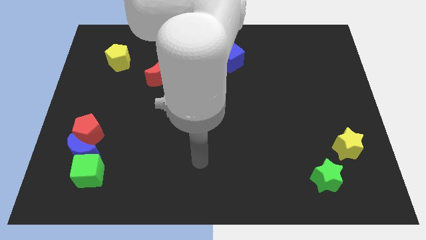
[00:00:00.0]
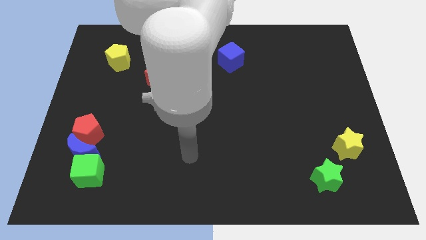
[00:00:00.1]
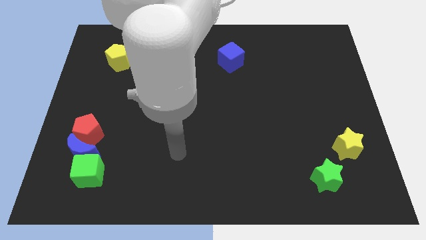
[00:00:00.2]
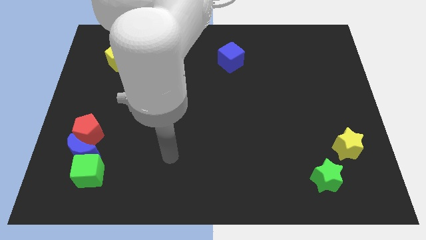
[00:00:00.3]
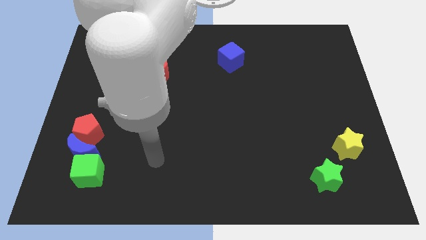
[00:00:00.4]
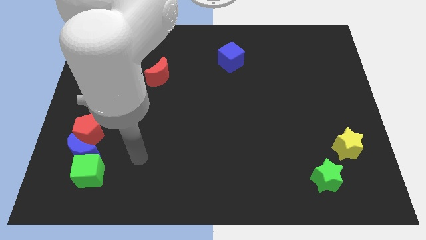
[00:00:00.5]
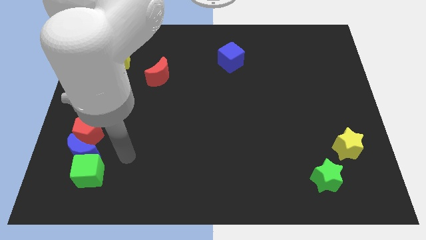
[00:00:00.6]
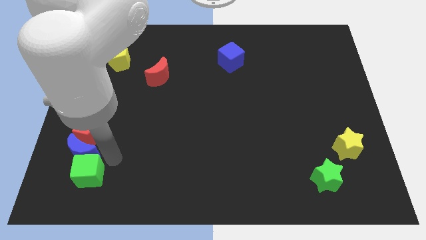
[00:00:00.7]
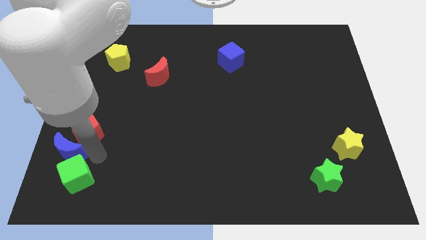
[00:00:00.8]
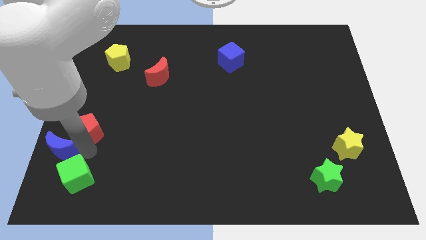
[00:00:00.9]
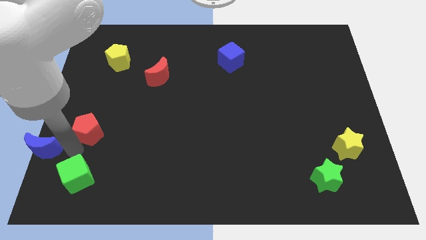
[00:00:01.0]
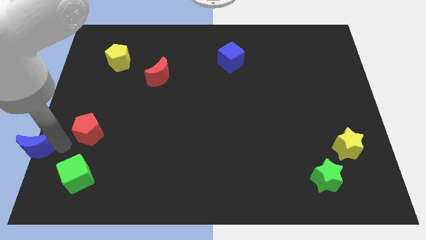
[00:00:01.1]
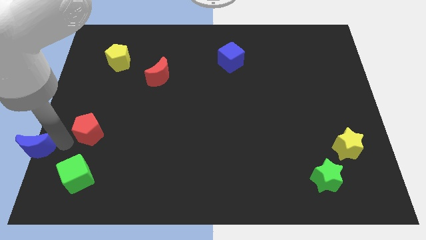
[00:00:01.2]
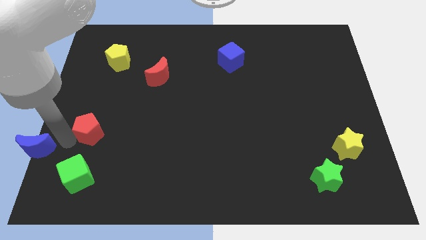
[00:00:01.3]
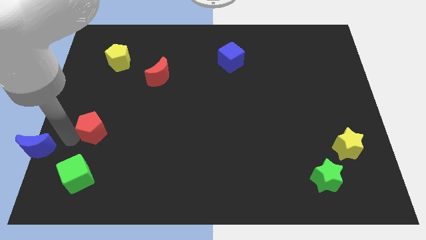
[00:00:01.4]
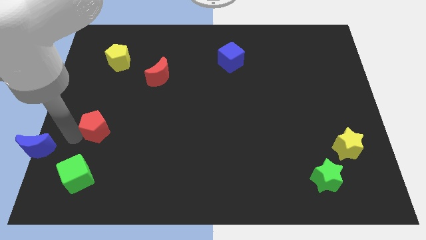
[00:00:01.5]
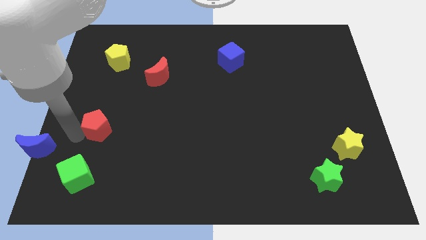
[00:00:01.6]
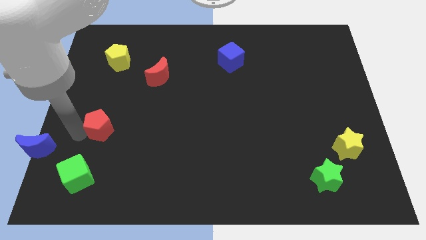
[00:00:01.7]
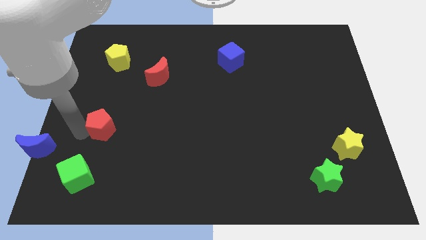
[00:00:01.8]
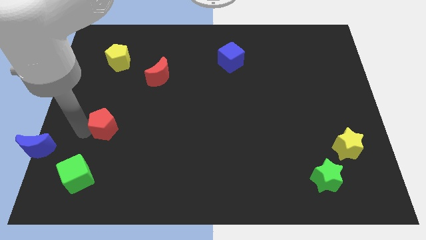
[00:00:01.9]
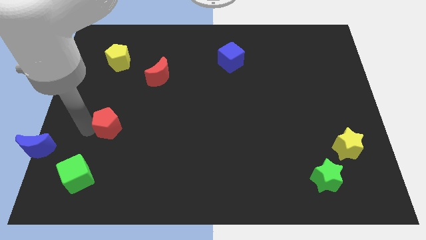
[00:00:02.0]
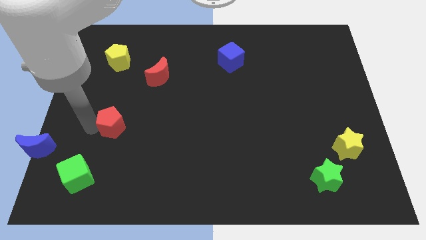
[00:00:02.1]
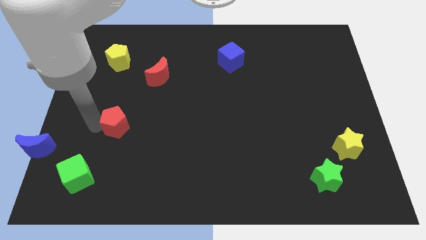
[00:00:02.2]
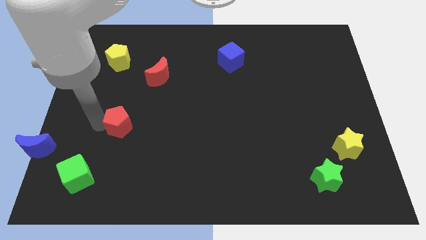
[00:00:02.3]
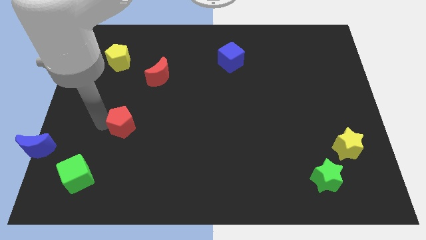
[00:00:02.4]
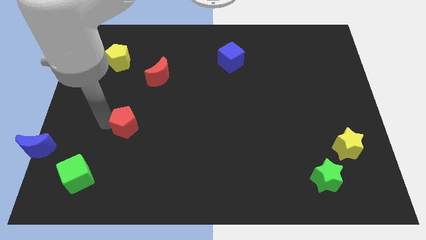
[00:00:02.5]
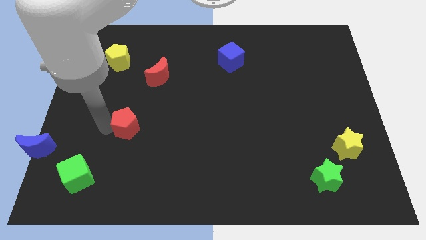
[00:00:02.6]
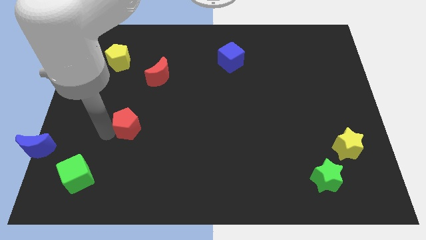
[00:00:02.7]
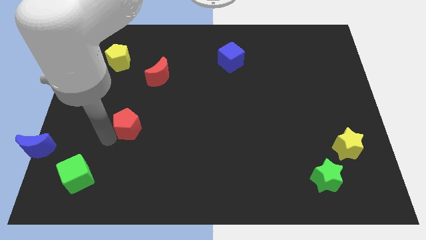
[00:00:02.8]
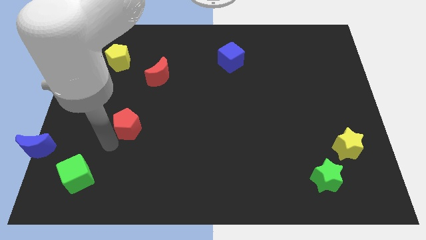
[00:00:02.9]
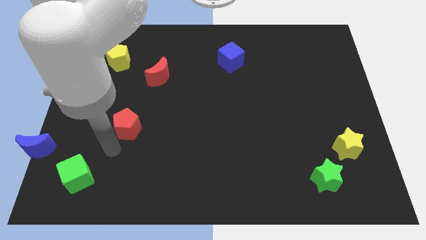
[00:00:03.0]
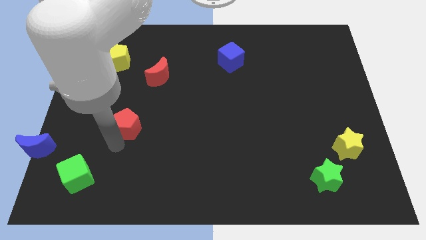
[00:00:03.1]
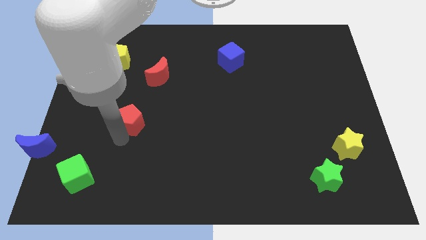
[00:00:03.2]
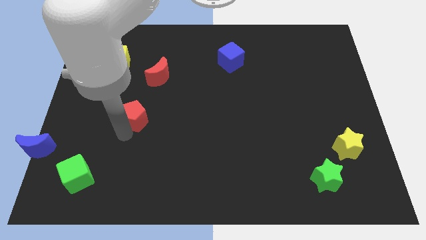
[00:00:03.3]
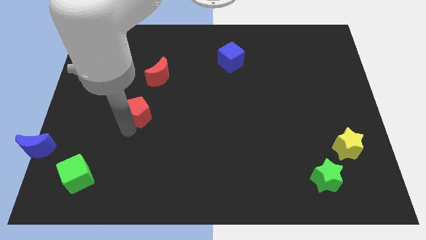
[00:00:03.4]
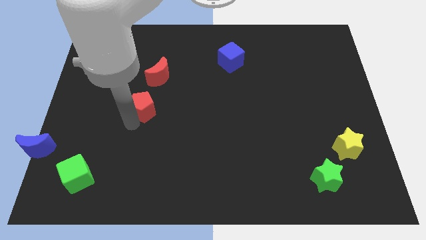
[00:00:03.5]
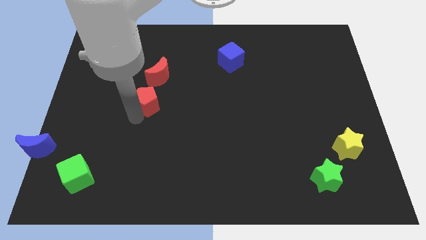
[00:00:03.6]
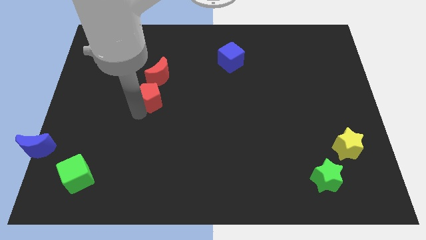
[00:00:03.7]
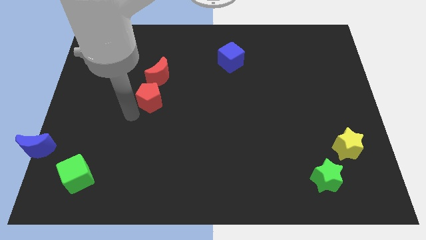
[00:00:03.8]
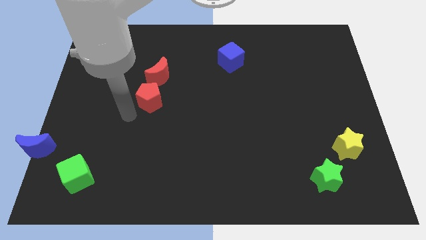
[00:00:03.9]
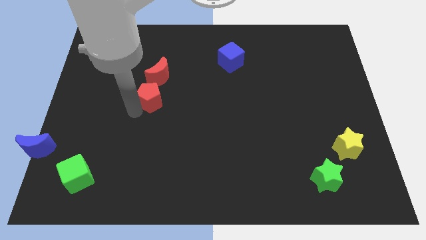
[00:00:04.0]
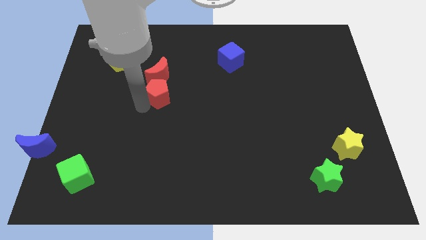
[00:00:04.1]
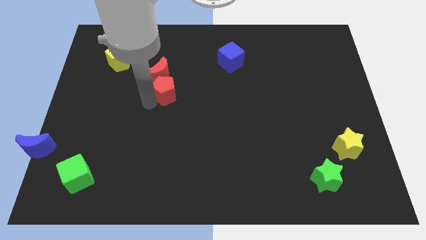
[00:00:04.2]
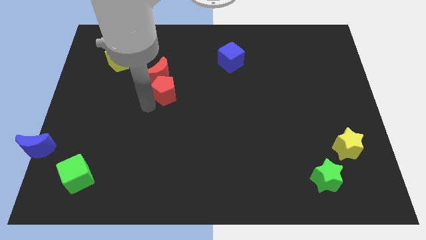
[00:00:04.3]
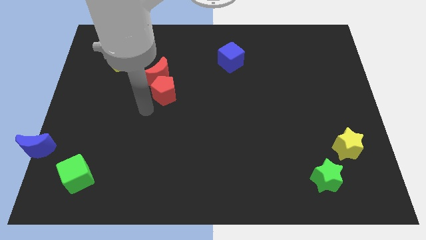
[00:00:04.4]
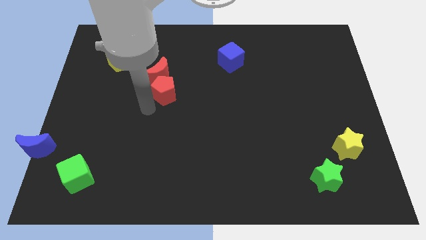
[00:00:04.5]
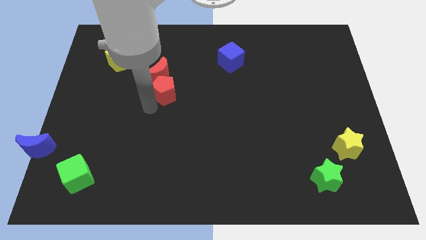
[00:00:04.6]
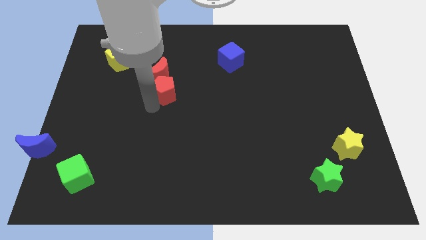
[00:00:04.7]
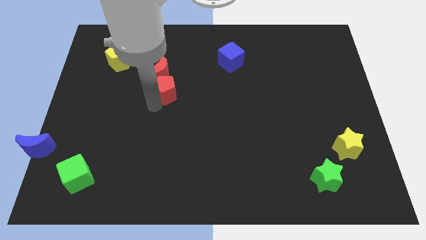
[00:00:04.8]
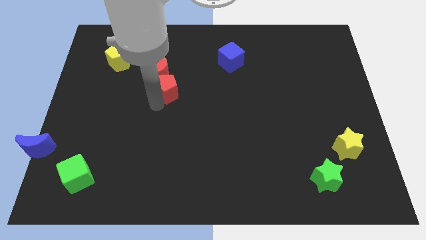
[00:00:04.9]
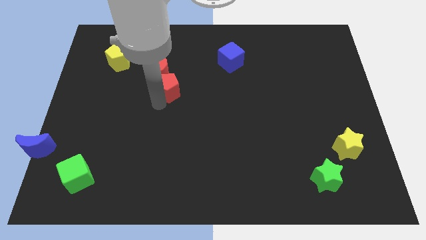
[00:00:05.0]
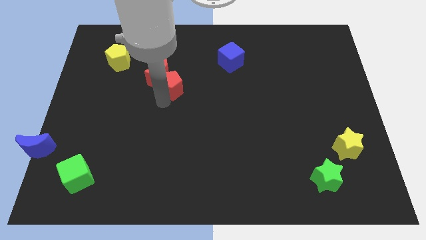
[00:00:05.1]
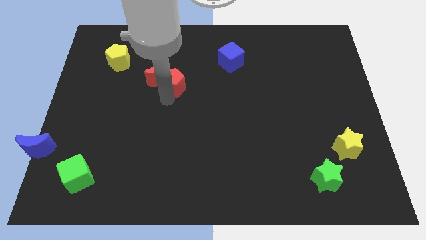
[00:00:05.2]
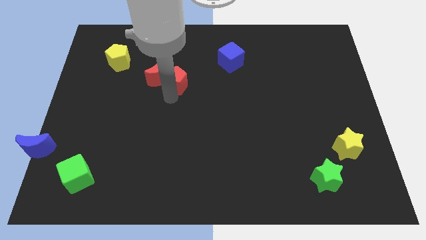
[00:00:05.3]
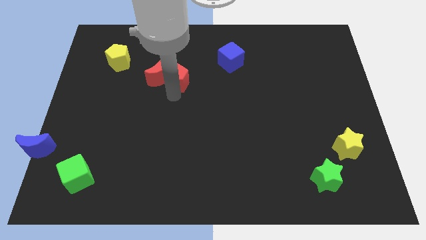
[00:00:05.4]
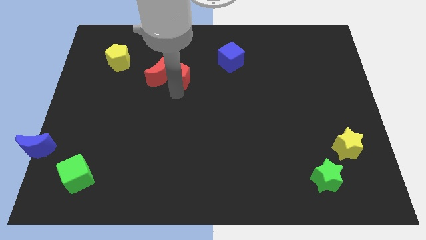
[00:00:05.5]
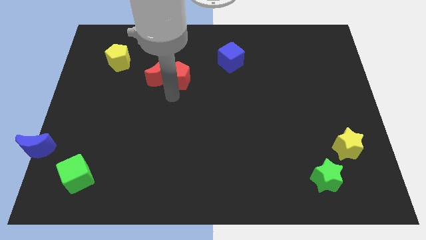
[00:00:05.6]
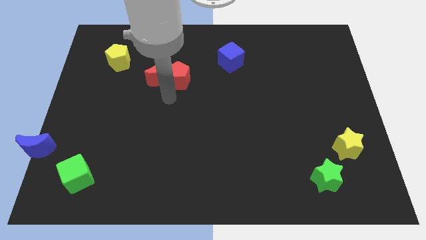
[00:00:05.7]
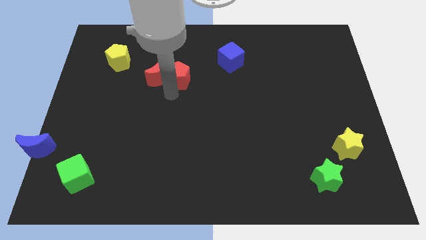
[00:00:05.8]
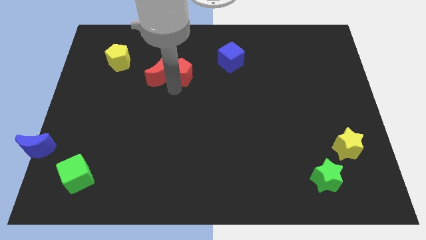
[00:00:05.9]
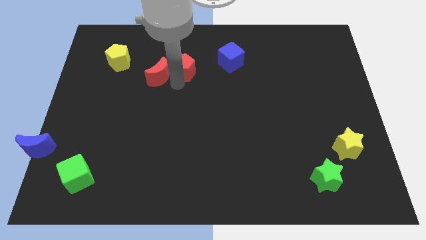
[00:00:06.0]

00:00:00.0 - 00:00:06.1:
put the red pentagon left of the blue cube

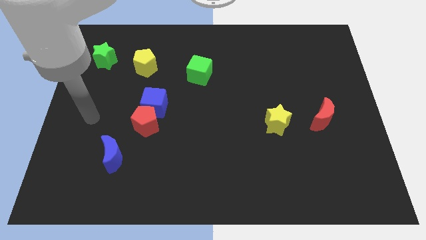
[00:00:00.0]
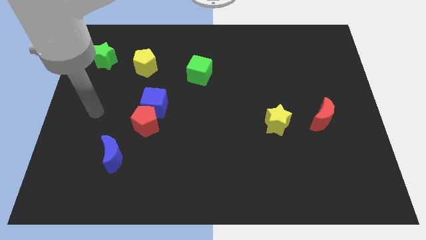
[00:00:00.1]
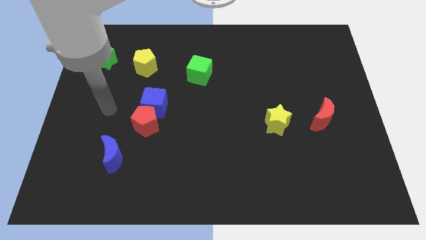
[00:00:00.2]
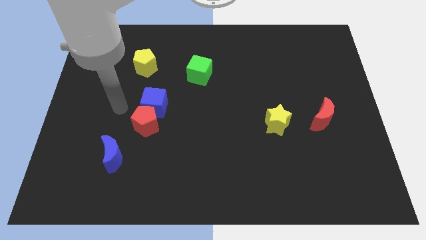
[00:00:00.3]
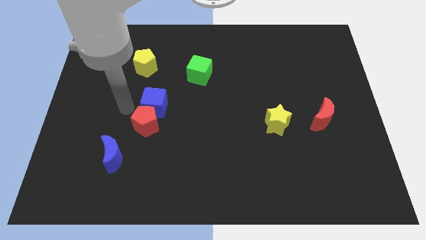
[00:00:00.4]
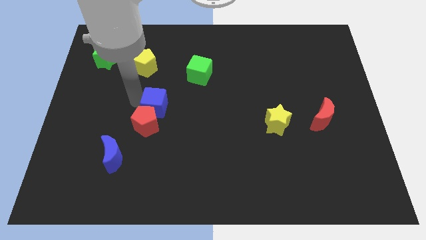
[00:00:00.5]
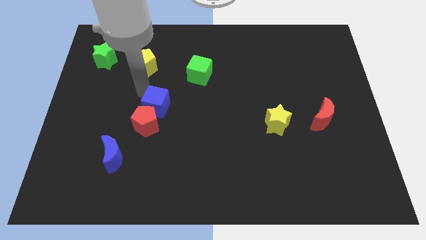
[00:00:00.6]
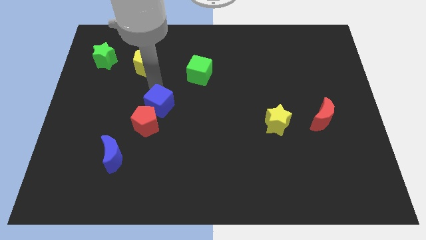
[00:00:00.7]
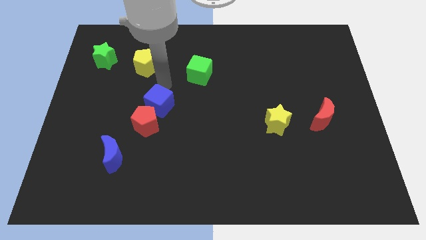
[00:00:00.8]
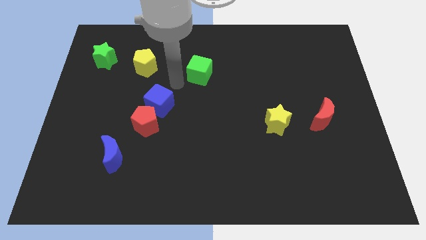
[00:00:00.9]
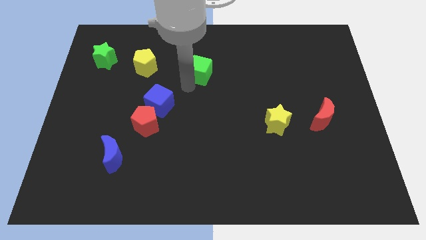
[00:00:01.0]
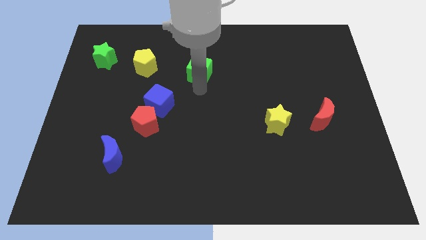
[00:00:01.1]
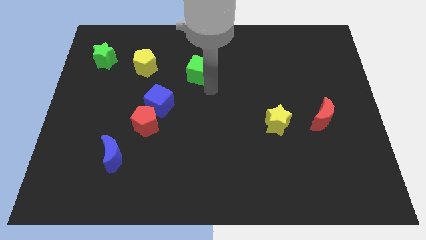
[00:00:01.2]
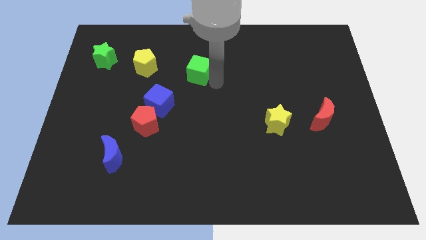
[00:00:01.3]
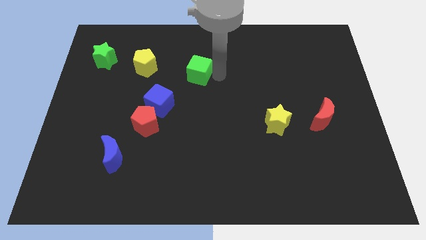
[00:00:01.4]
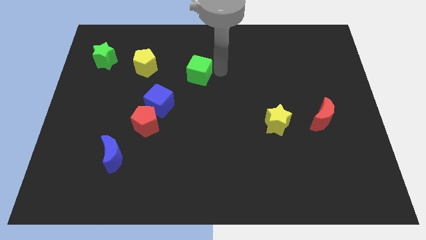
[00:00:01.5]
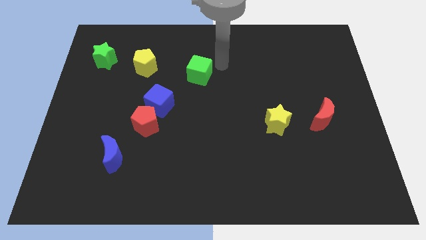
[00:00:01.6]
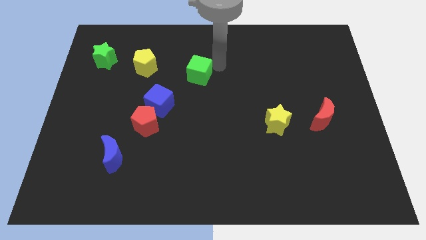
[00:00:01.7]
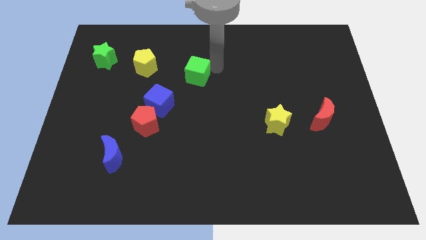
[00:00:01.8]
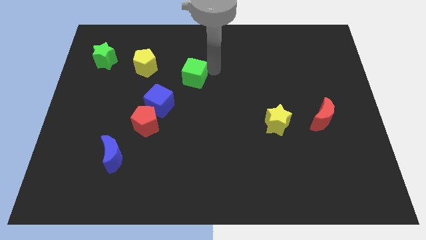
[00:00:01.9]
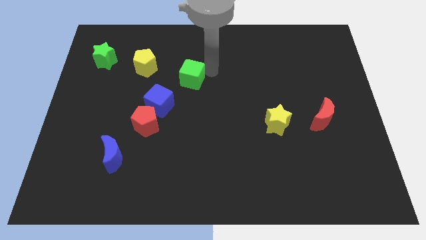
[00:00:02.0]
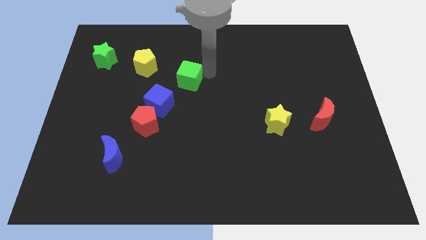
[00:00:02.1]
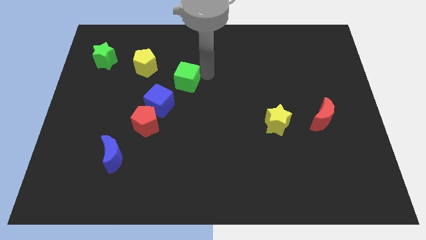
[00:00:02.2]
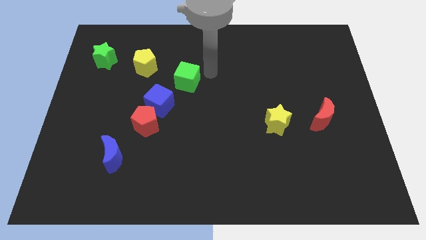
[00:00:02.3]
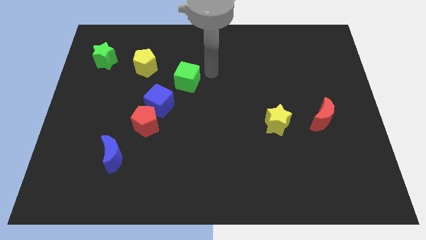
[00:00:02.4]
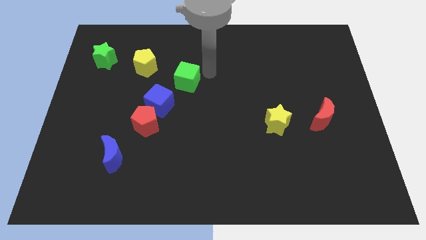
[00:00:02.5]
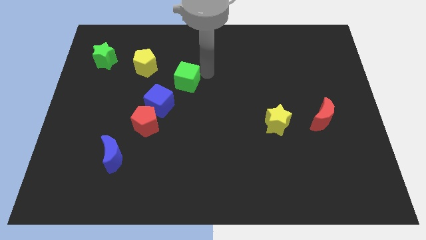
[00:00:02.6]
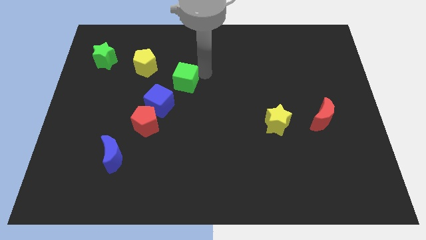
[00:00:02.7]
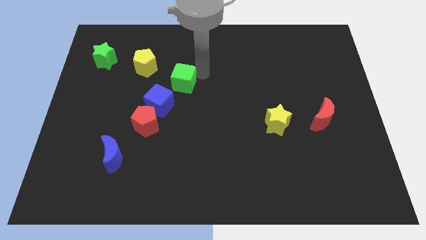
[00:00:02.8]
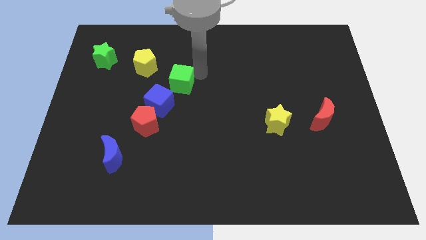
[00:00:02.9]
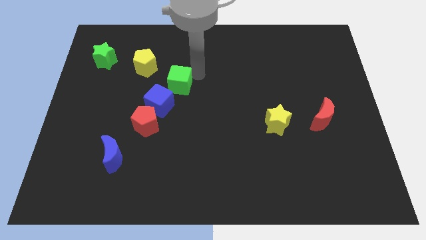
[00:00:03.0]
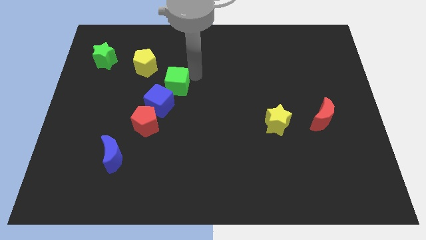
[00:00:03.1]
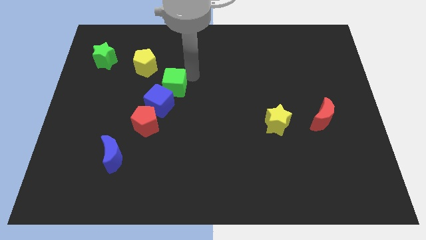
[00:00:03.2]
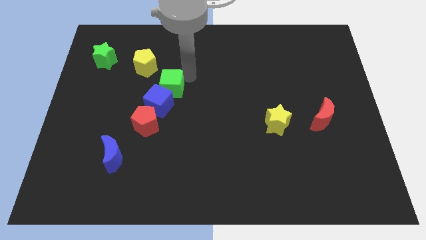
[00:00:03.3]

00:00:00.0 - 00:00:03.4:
slide the green cube to the top of the red pentagon
